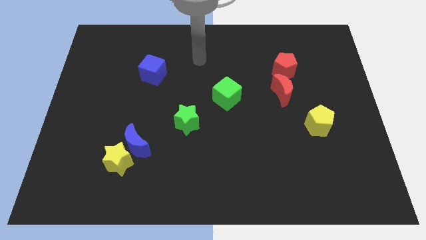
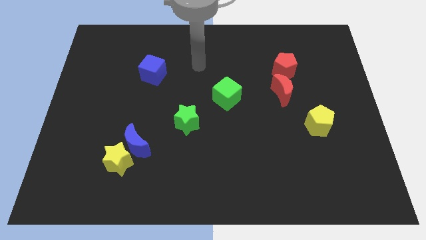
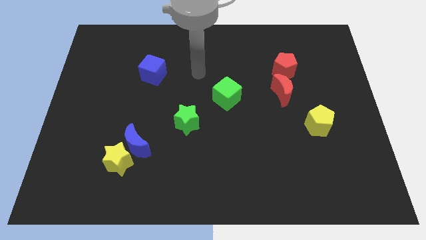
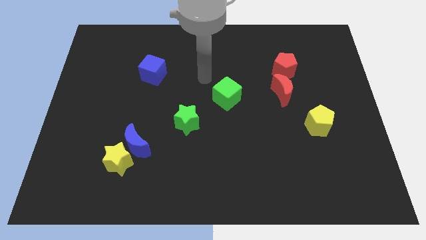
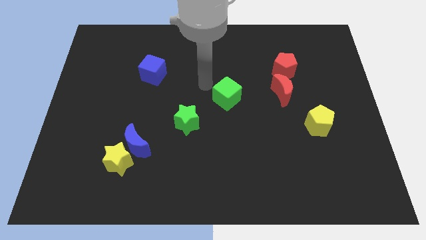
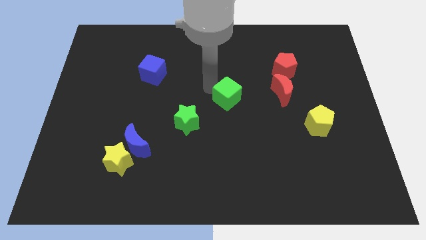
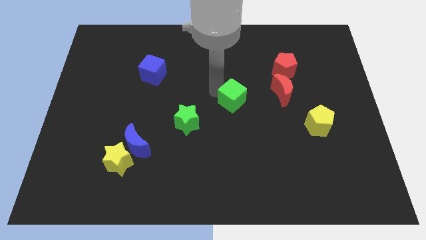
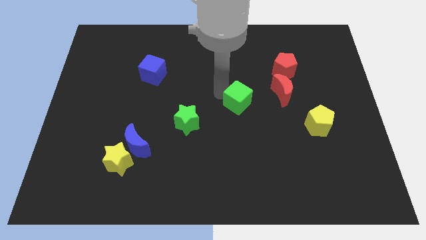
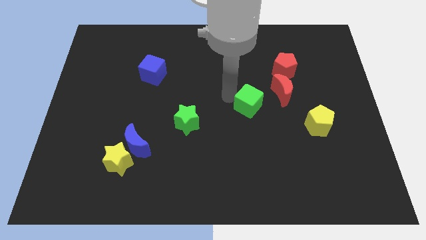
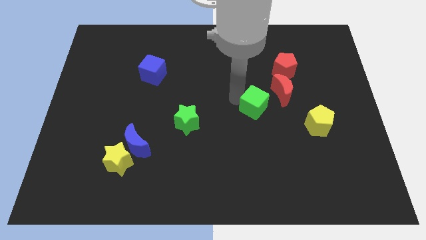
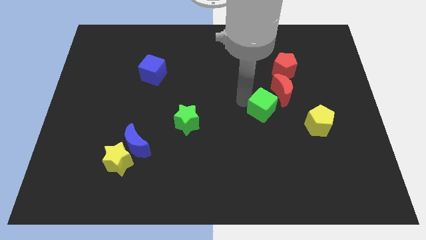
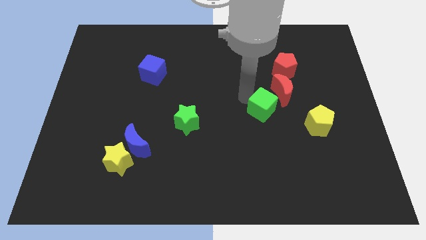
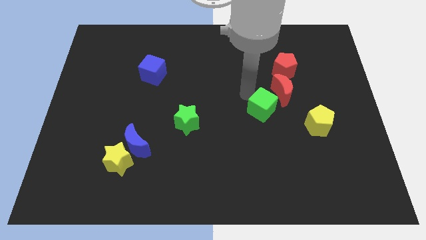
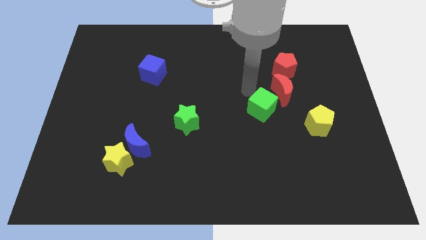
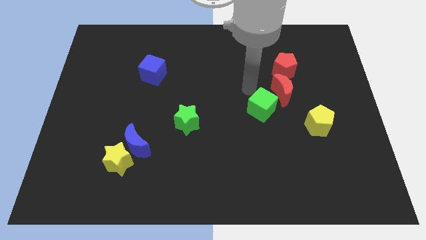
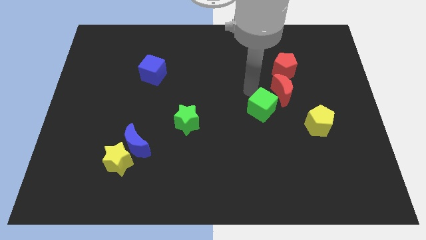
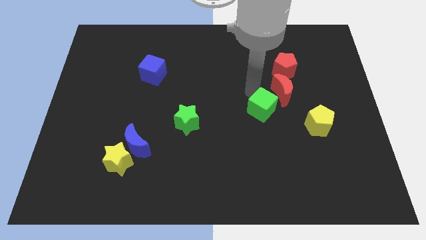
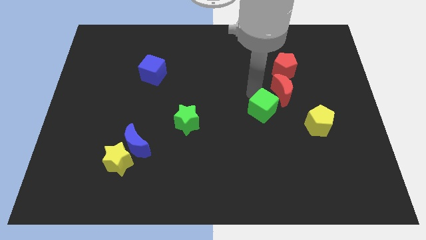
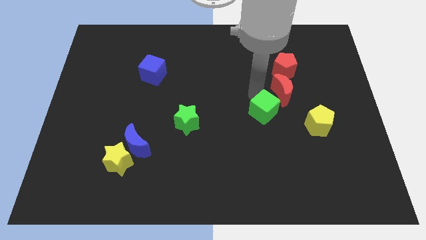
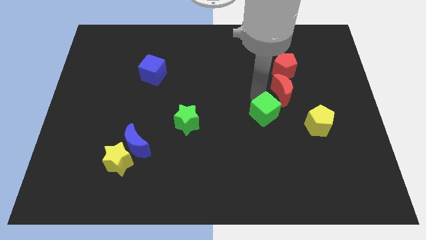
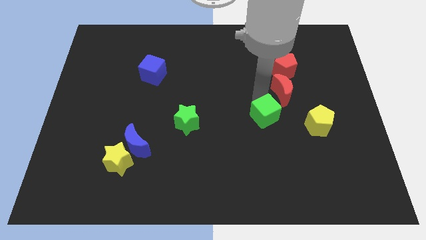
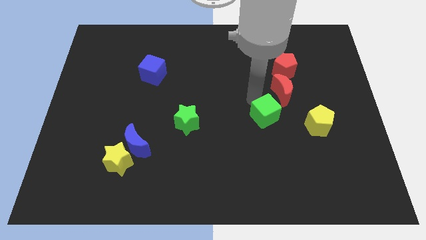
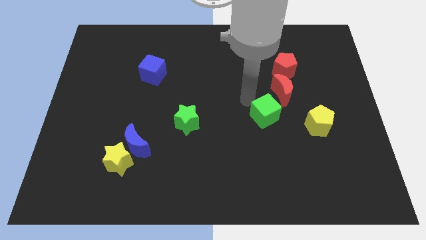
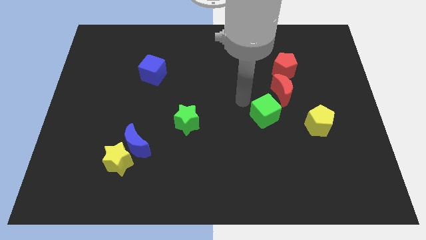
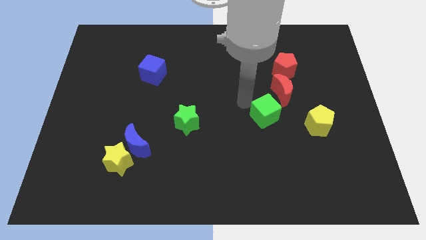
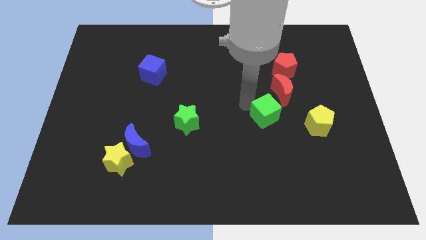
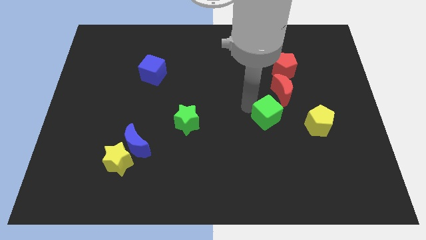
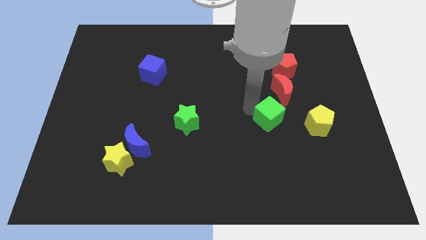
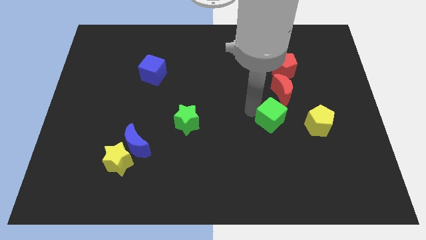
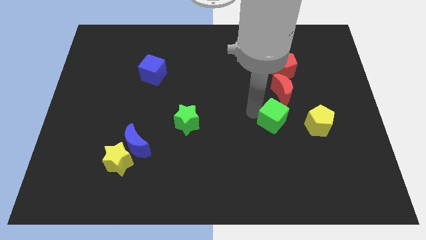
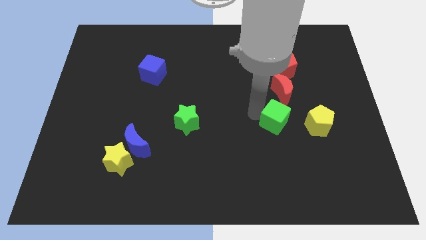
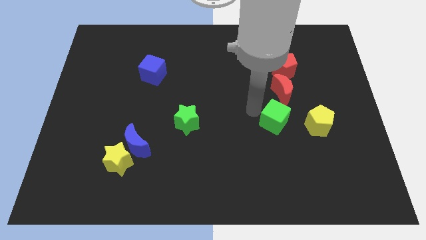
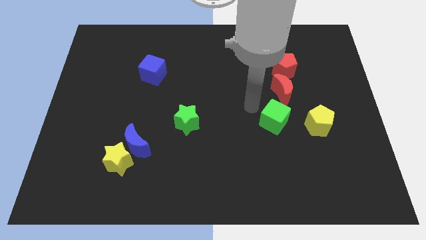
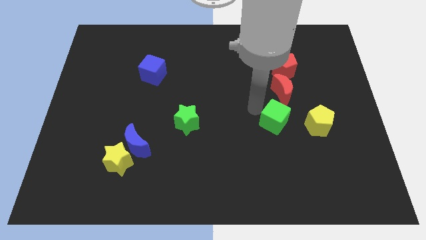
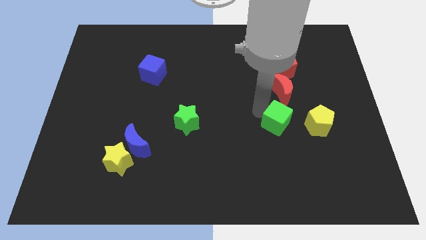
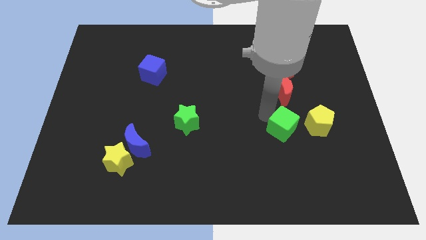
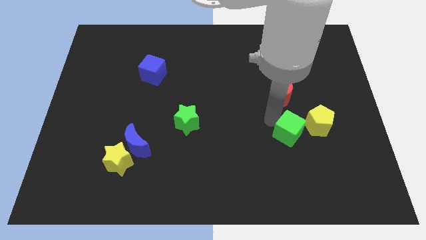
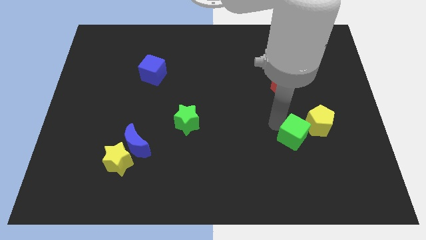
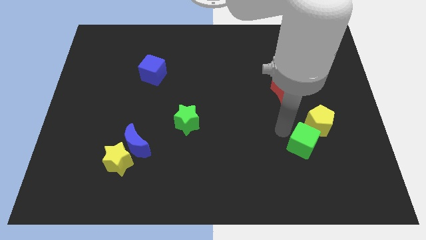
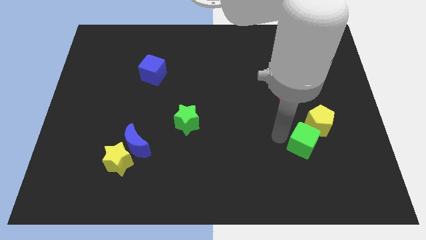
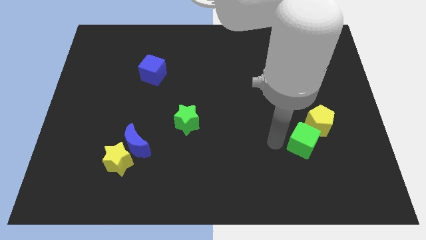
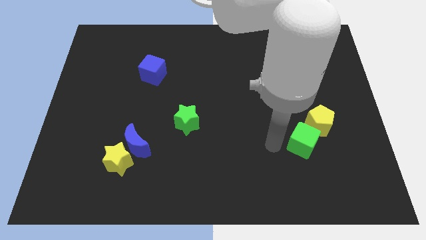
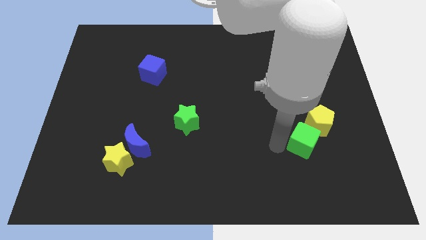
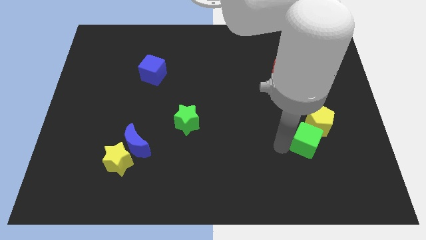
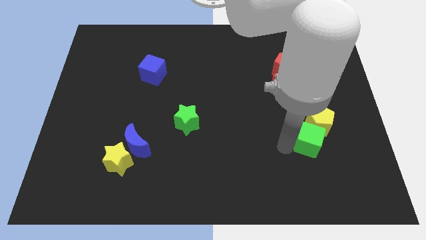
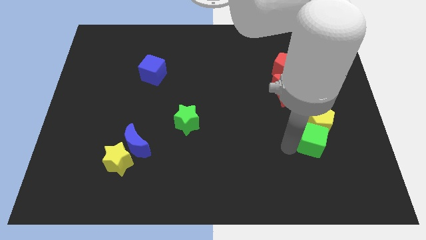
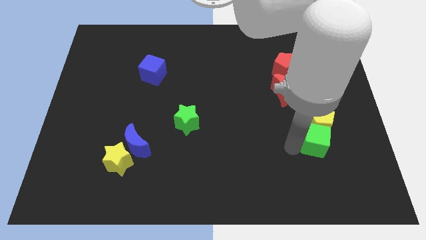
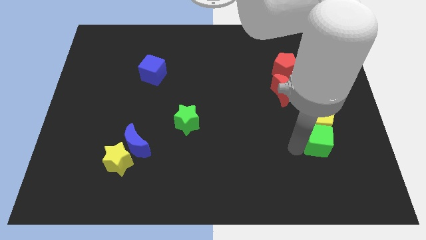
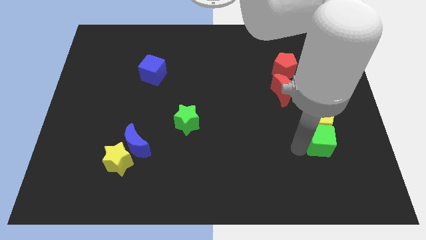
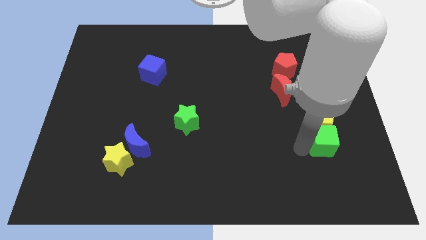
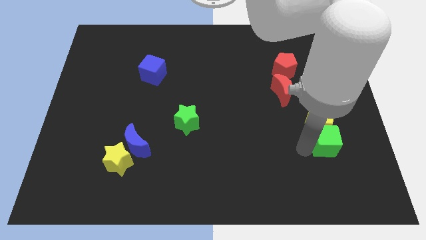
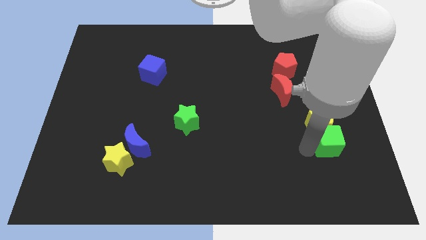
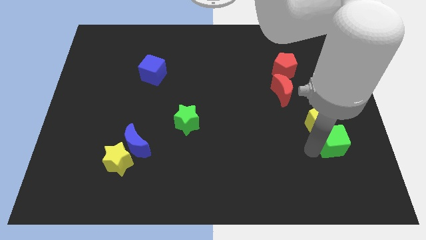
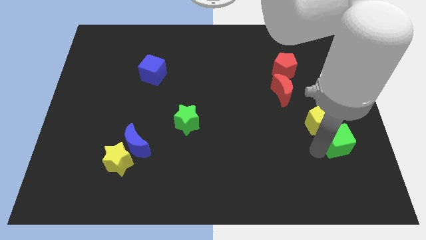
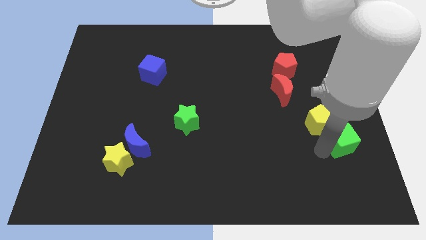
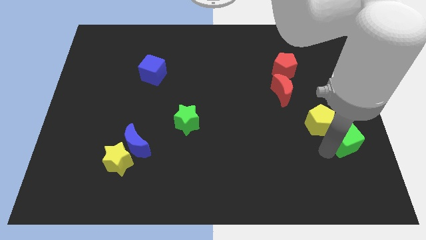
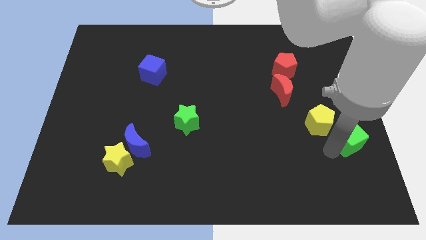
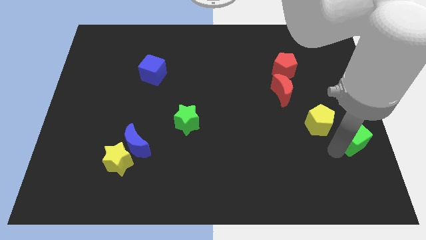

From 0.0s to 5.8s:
put the green cube to the right side of the board
